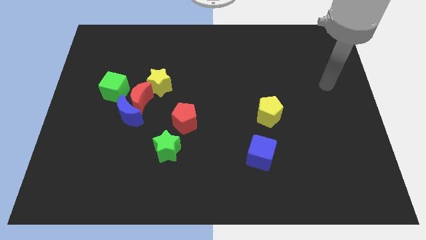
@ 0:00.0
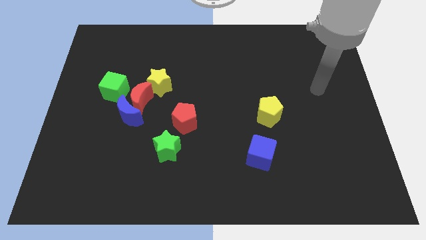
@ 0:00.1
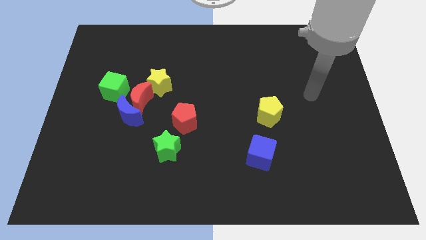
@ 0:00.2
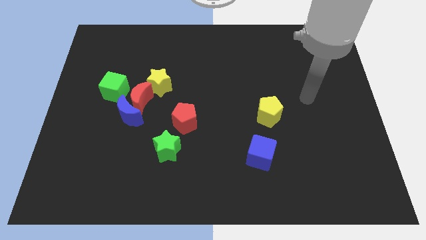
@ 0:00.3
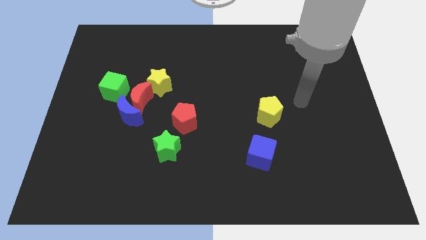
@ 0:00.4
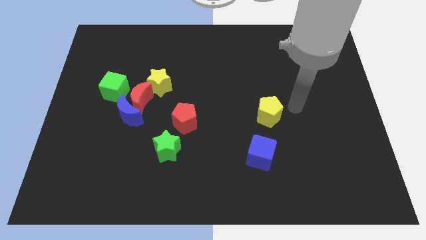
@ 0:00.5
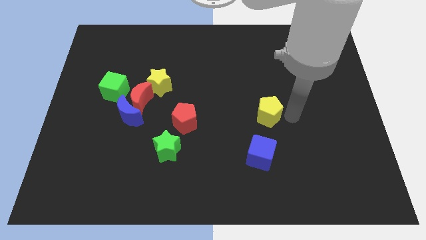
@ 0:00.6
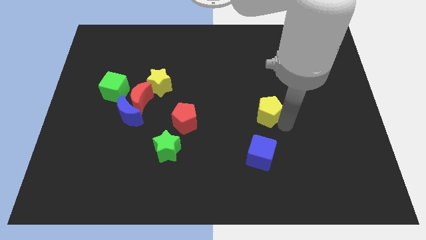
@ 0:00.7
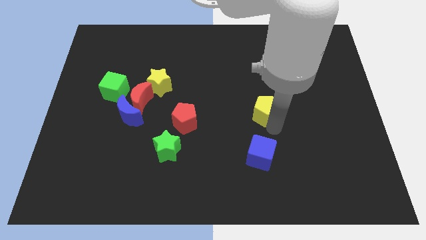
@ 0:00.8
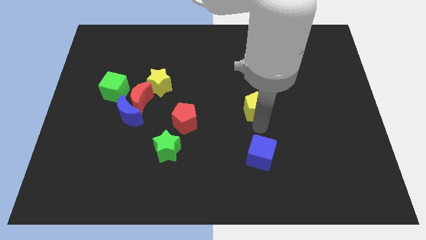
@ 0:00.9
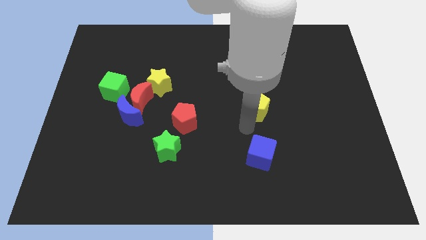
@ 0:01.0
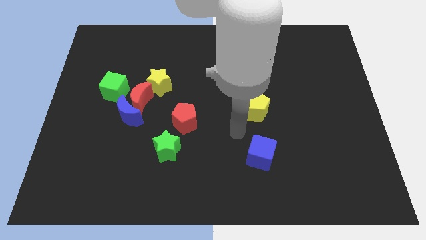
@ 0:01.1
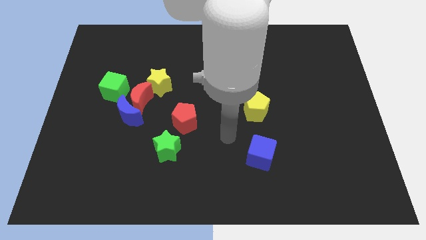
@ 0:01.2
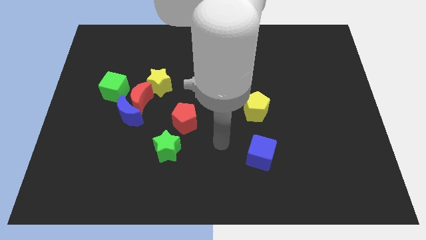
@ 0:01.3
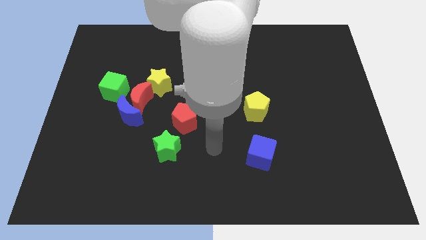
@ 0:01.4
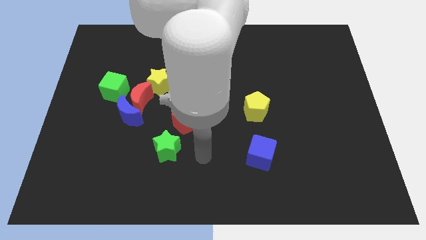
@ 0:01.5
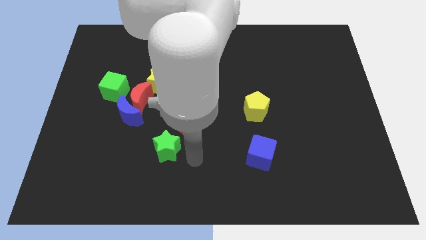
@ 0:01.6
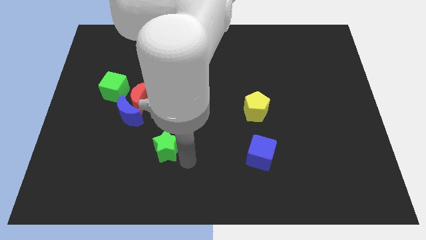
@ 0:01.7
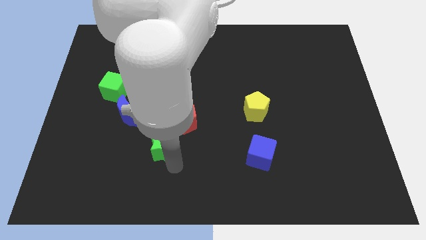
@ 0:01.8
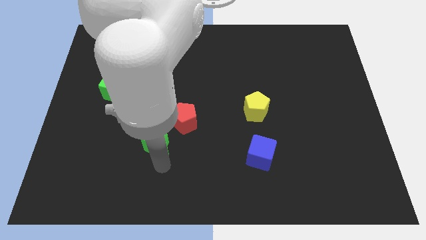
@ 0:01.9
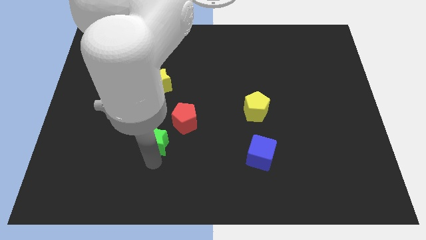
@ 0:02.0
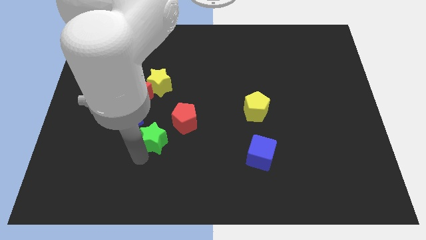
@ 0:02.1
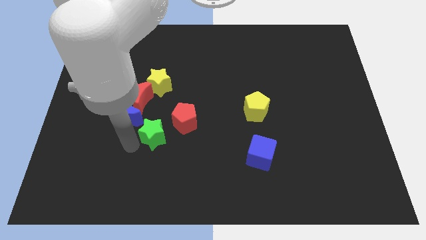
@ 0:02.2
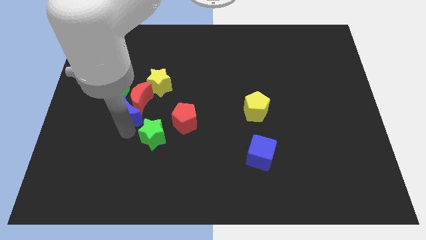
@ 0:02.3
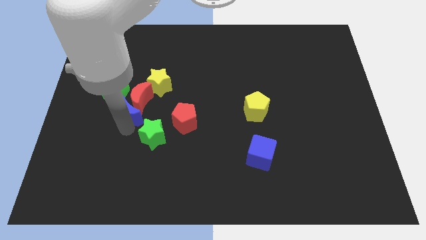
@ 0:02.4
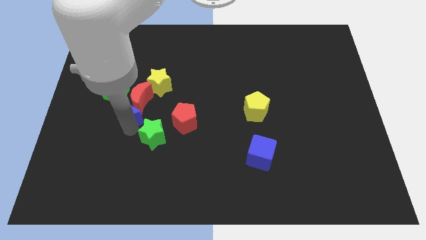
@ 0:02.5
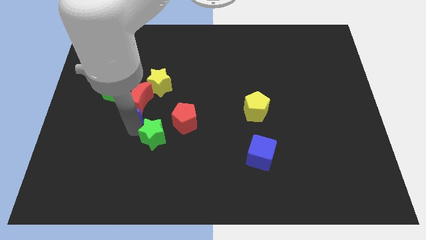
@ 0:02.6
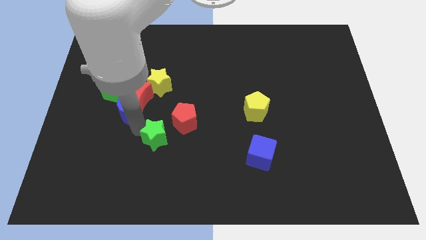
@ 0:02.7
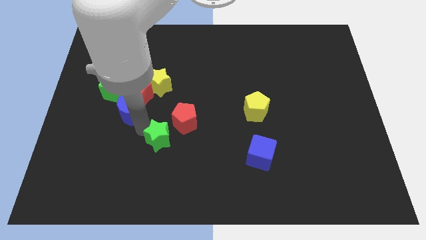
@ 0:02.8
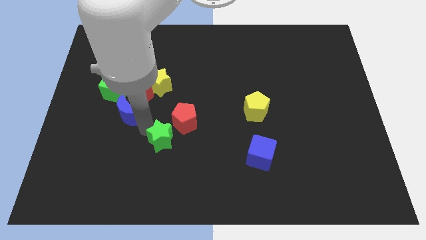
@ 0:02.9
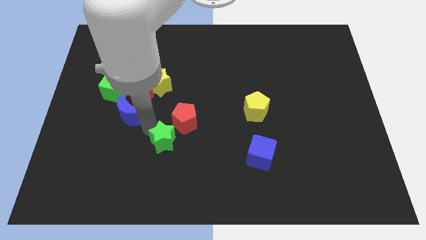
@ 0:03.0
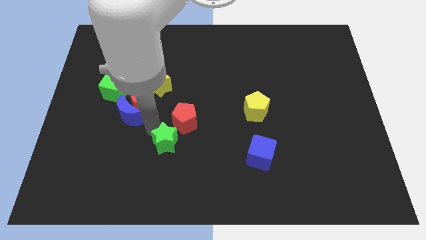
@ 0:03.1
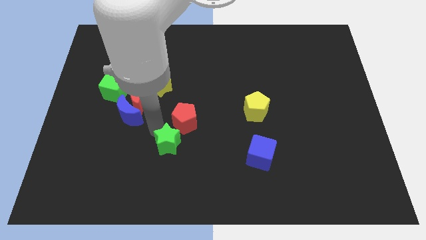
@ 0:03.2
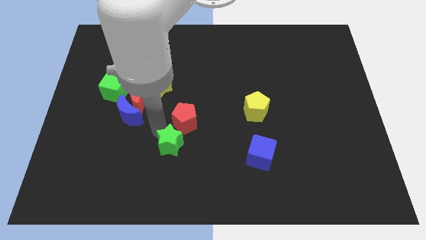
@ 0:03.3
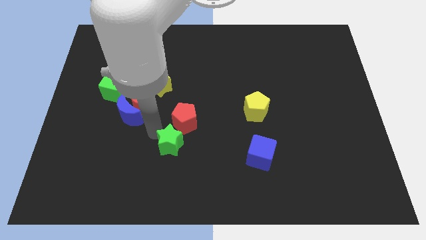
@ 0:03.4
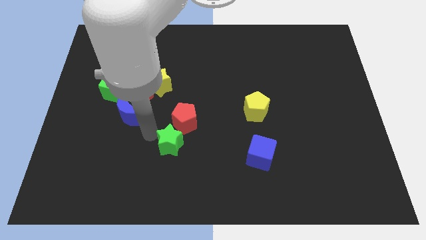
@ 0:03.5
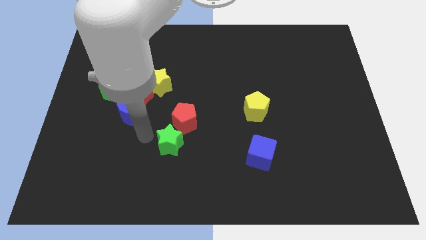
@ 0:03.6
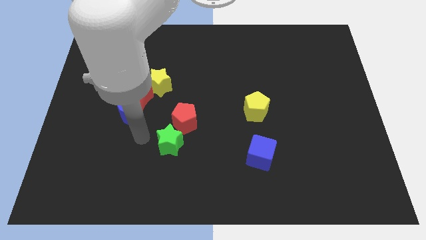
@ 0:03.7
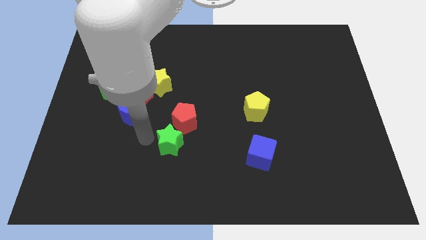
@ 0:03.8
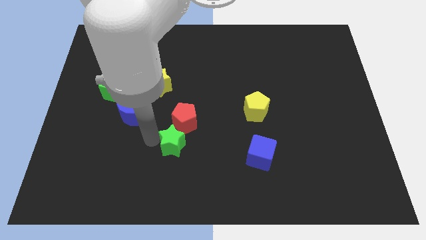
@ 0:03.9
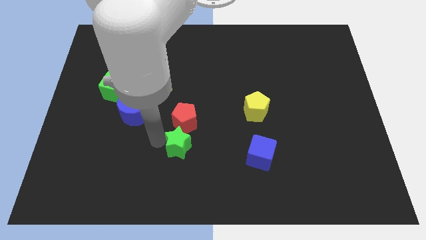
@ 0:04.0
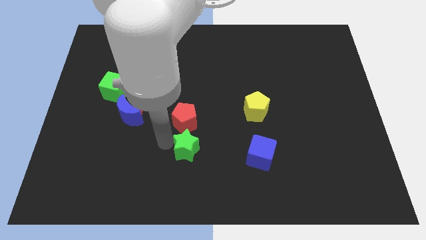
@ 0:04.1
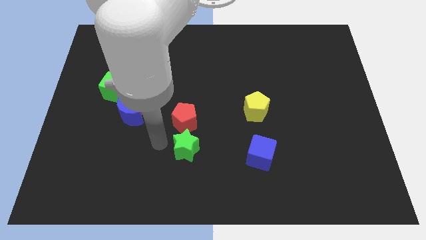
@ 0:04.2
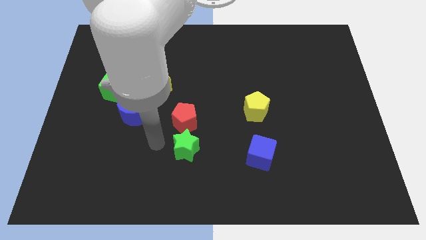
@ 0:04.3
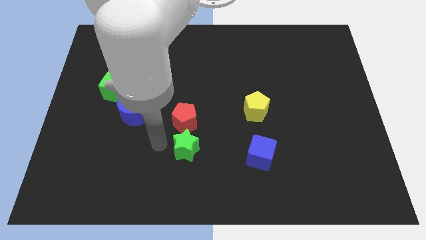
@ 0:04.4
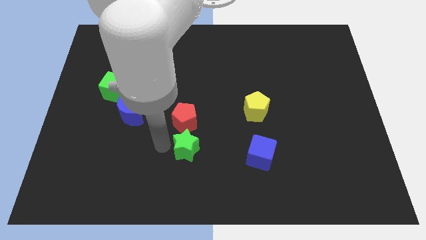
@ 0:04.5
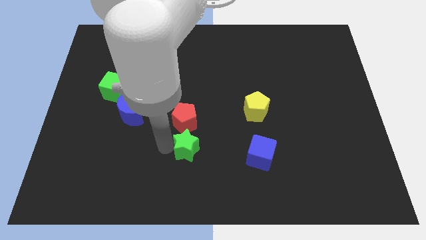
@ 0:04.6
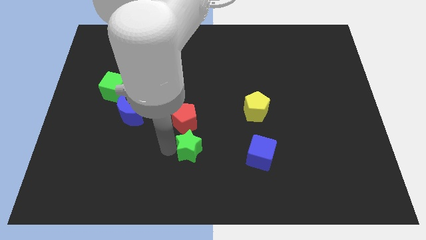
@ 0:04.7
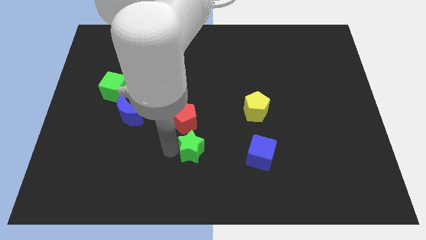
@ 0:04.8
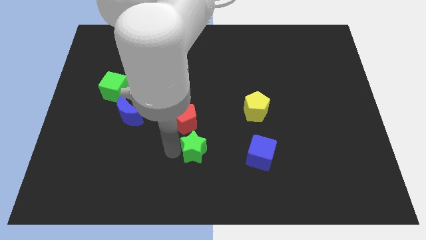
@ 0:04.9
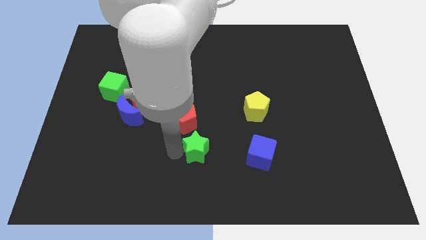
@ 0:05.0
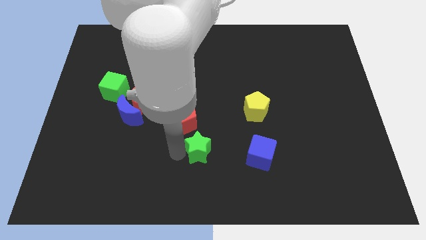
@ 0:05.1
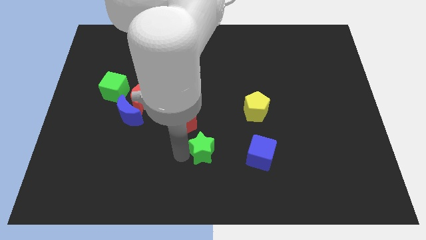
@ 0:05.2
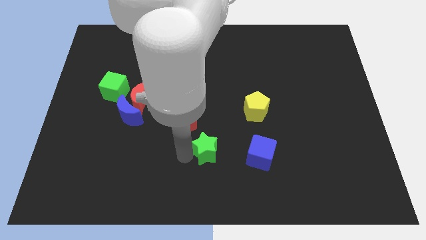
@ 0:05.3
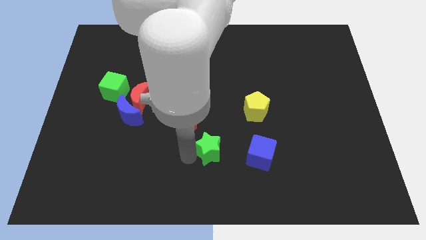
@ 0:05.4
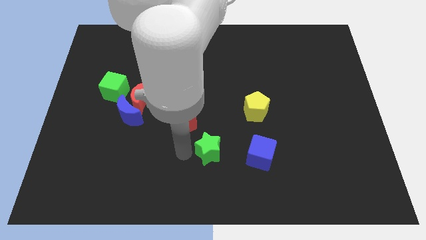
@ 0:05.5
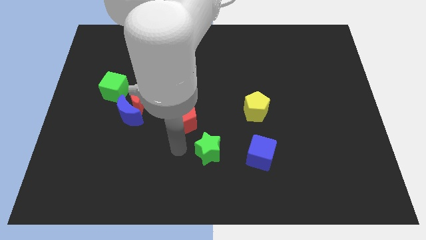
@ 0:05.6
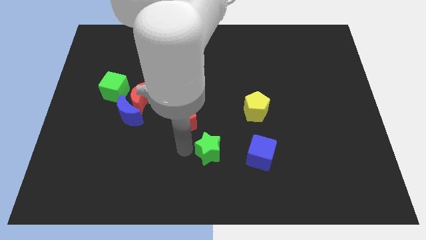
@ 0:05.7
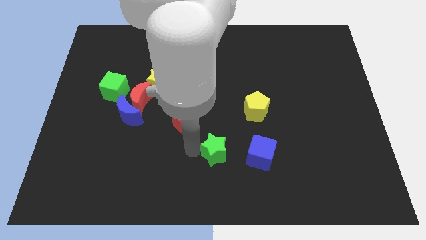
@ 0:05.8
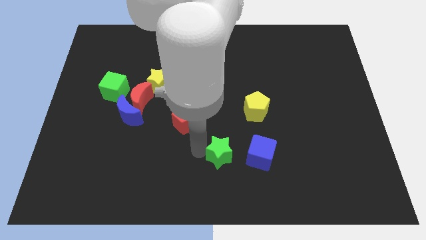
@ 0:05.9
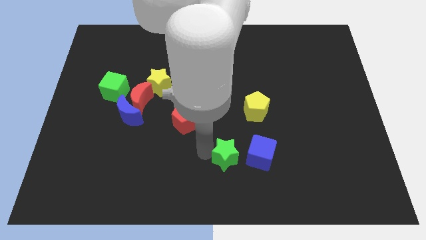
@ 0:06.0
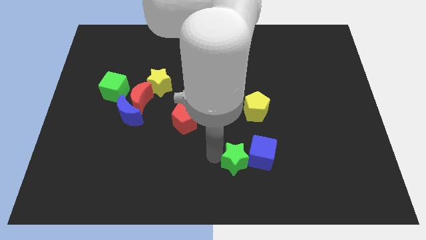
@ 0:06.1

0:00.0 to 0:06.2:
push the green star to the blue cube

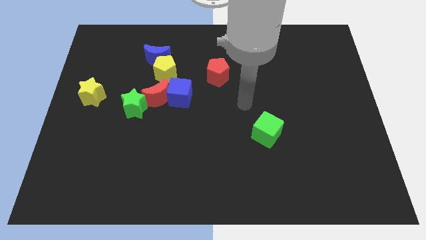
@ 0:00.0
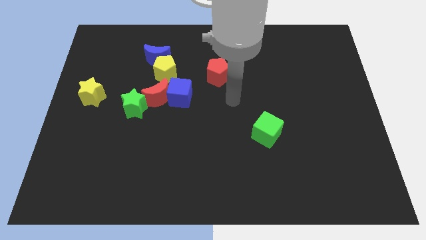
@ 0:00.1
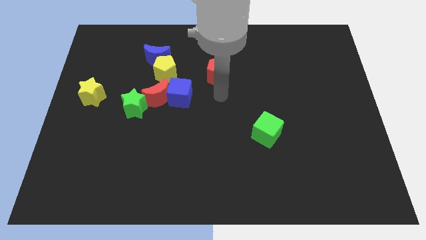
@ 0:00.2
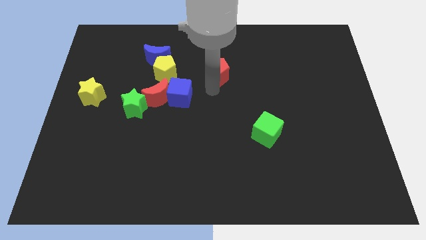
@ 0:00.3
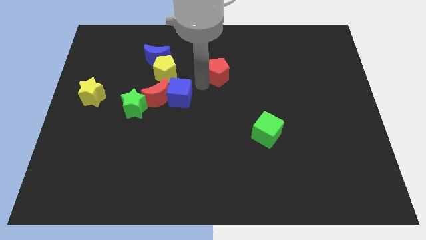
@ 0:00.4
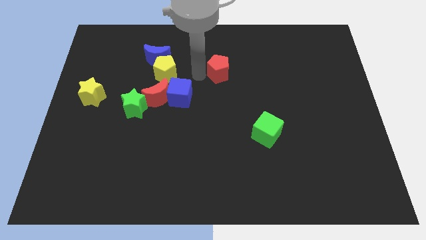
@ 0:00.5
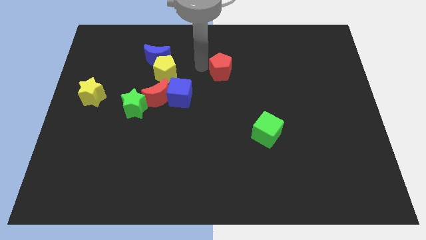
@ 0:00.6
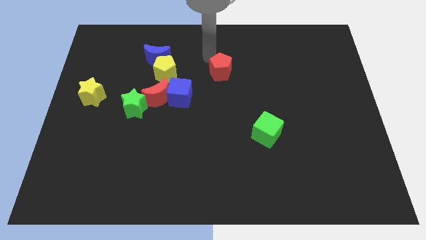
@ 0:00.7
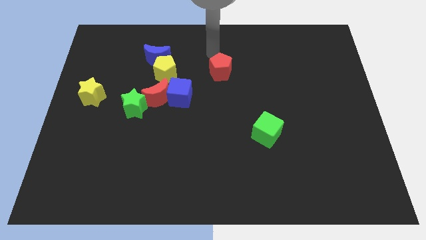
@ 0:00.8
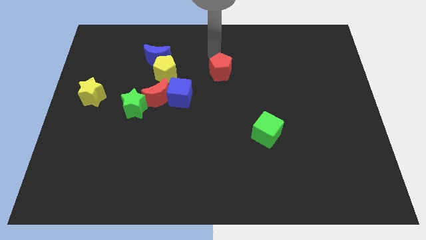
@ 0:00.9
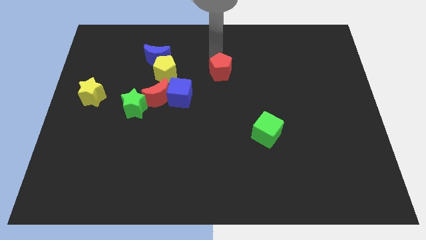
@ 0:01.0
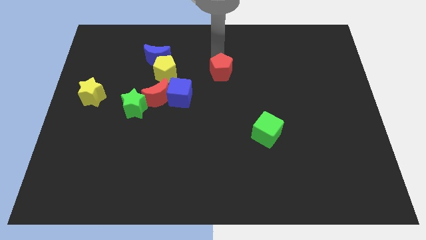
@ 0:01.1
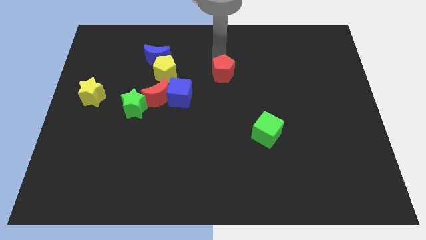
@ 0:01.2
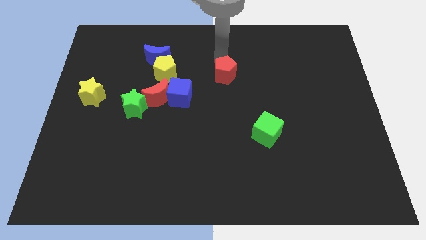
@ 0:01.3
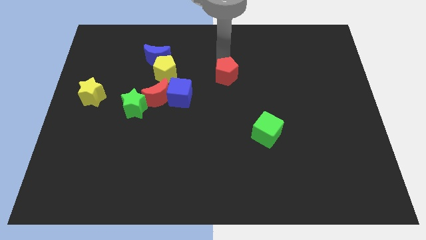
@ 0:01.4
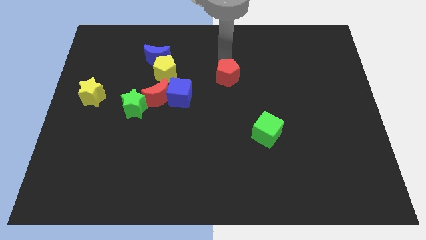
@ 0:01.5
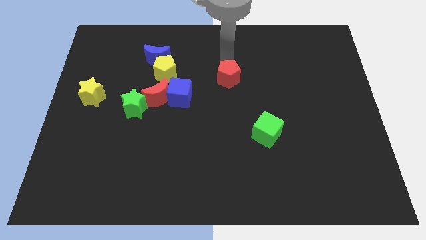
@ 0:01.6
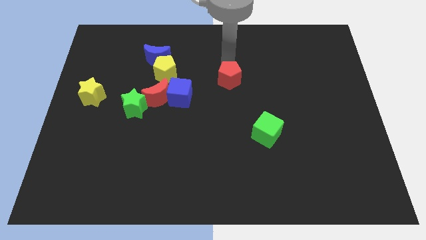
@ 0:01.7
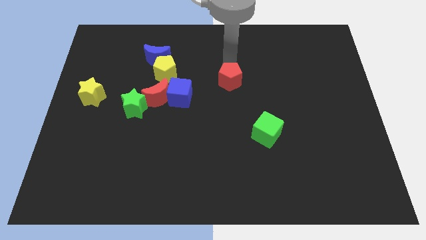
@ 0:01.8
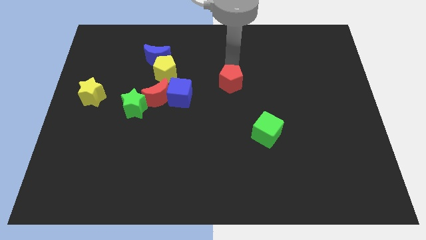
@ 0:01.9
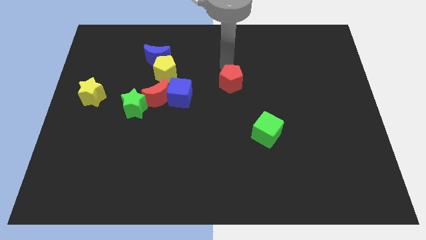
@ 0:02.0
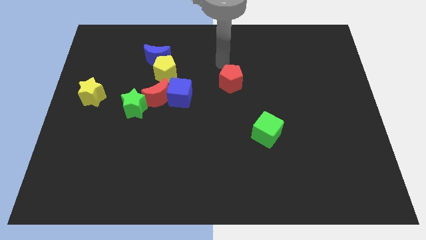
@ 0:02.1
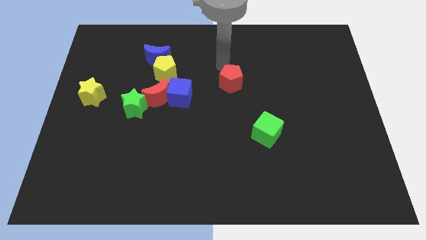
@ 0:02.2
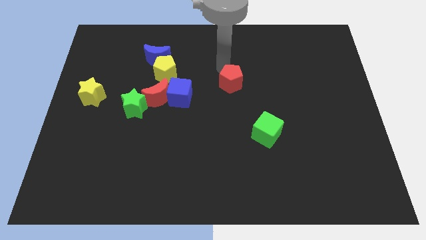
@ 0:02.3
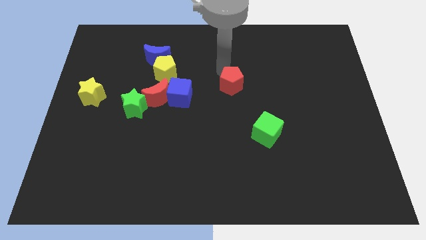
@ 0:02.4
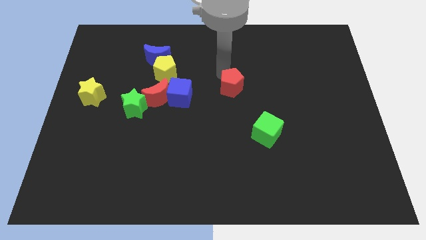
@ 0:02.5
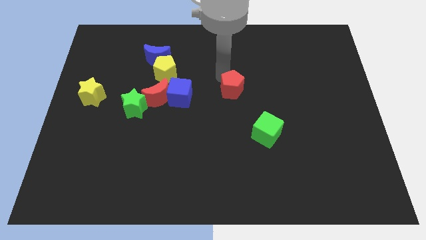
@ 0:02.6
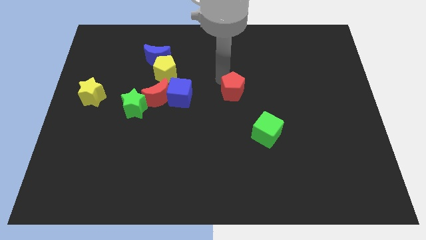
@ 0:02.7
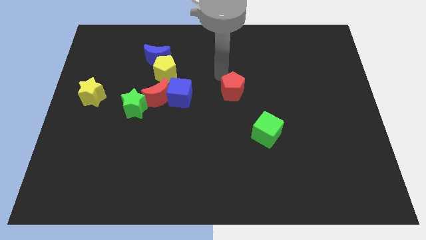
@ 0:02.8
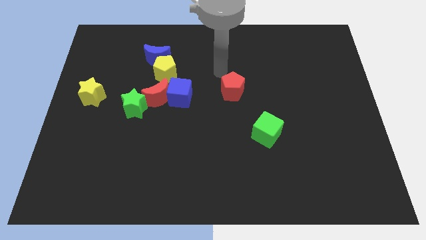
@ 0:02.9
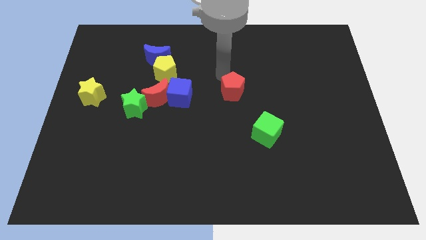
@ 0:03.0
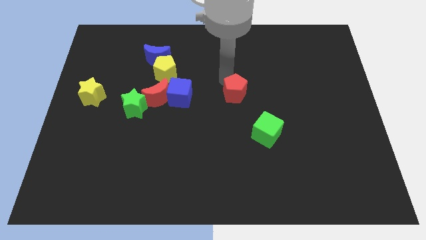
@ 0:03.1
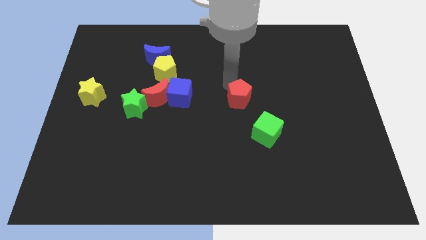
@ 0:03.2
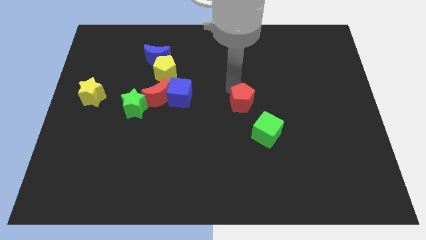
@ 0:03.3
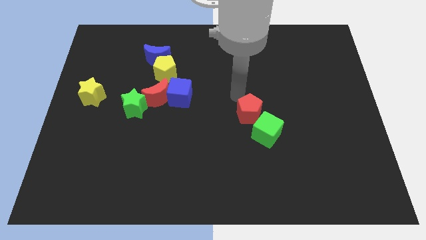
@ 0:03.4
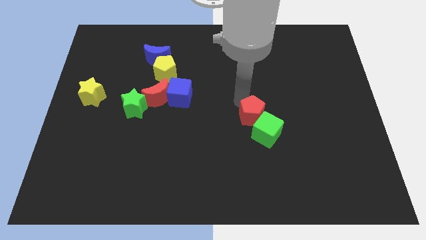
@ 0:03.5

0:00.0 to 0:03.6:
put the red pentagon close to the green cube
